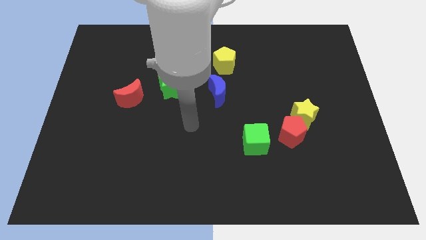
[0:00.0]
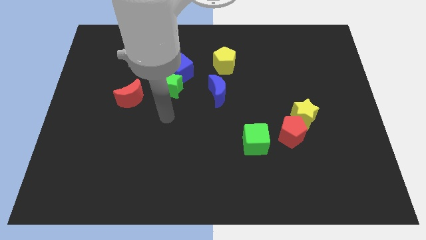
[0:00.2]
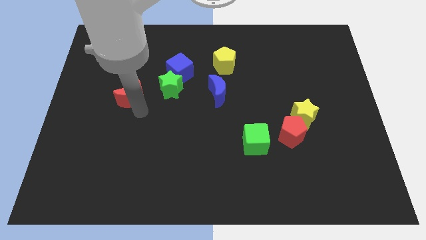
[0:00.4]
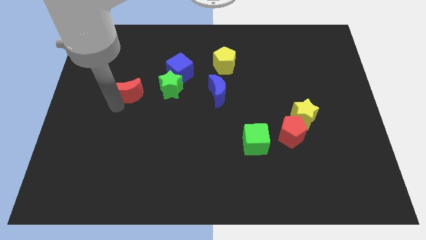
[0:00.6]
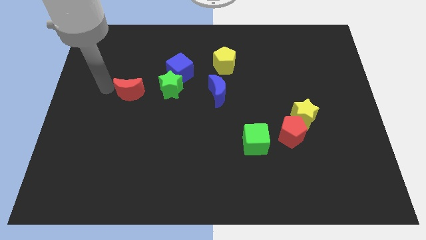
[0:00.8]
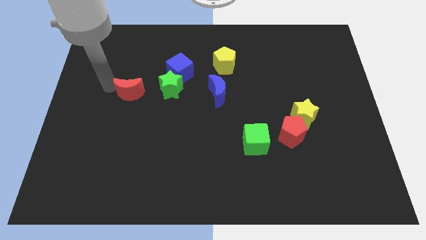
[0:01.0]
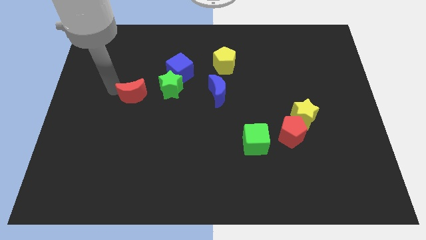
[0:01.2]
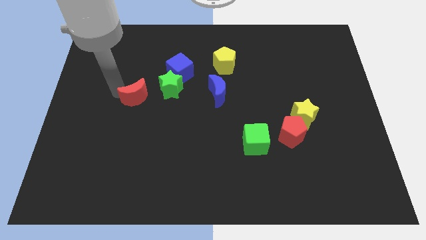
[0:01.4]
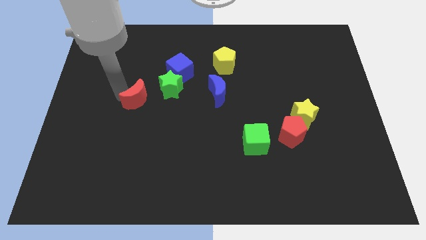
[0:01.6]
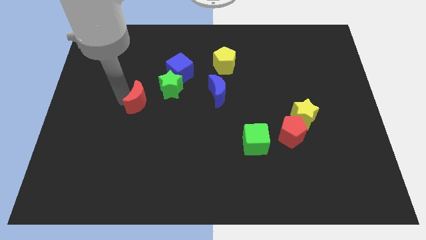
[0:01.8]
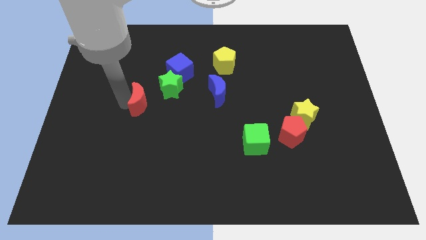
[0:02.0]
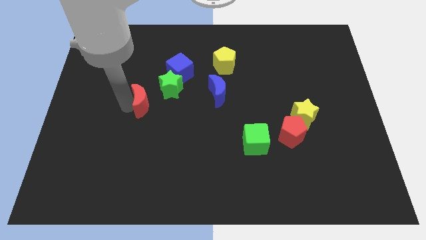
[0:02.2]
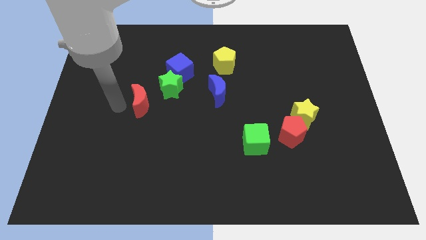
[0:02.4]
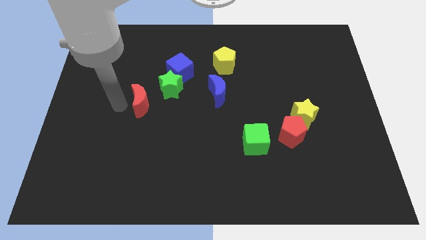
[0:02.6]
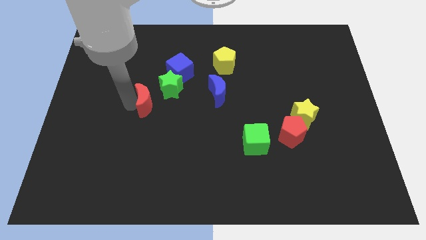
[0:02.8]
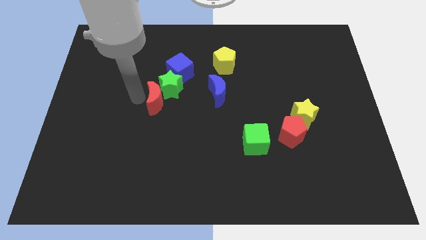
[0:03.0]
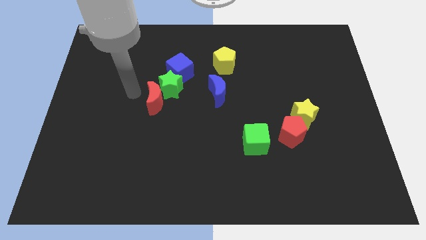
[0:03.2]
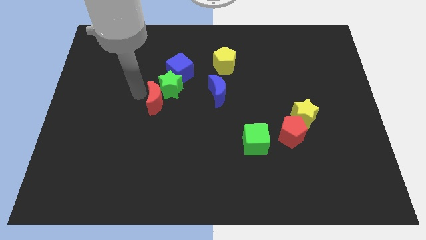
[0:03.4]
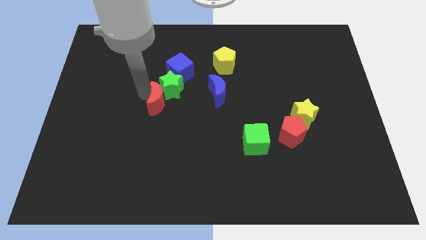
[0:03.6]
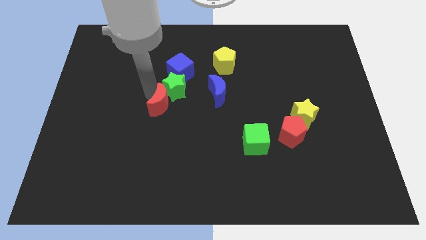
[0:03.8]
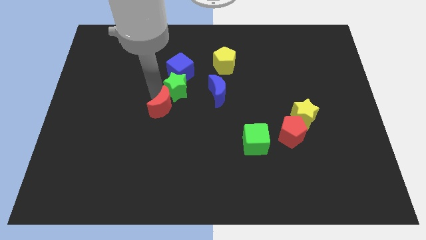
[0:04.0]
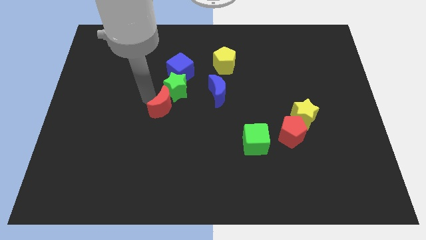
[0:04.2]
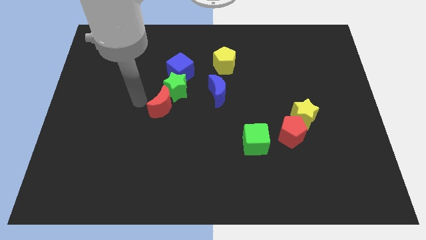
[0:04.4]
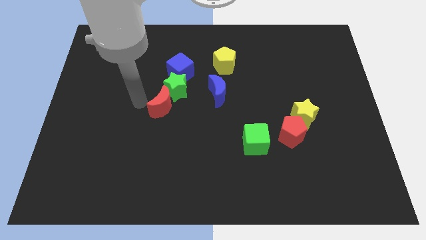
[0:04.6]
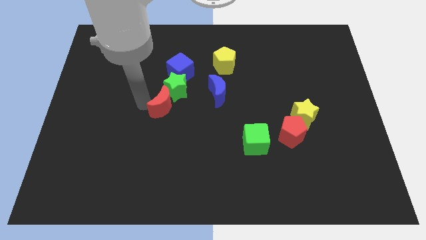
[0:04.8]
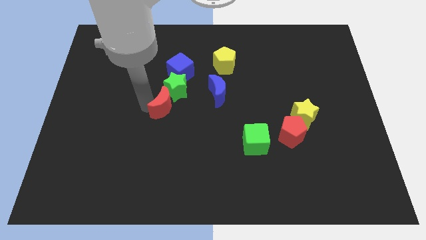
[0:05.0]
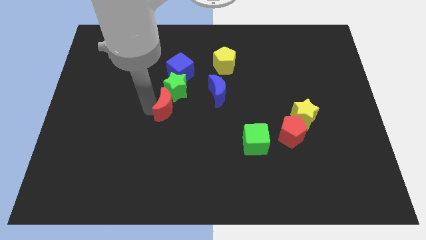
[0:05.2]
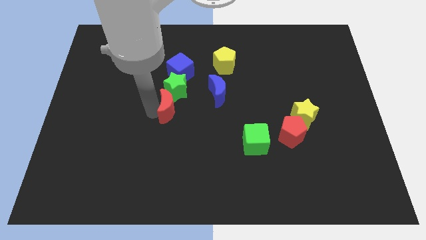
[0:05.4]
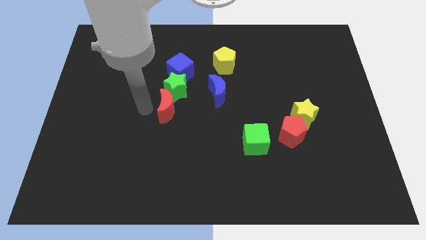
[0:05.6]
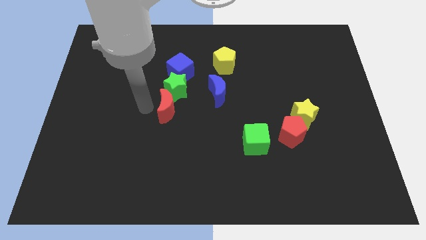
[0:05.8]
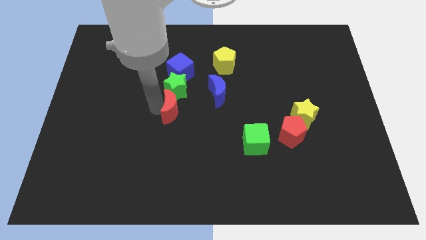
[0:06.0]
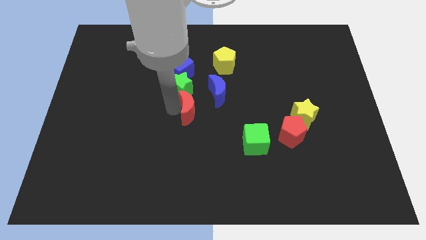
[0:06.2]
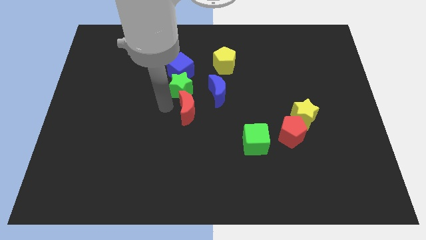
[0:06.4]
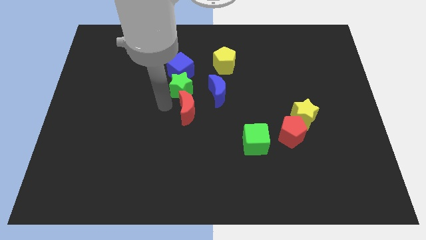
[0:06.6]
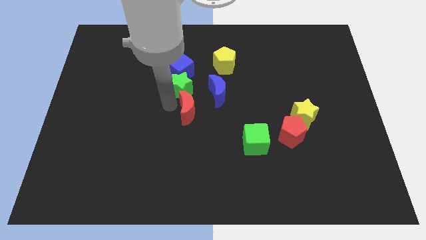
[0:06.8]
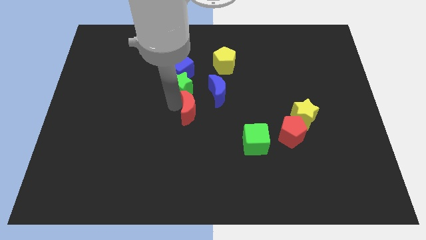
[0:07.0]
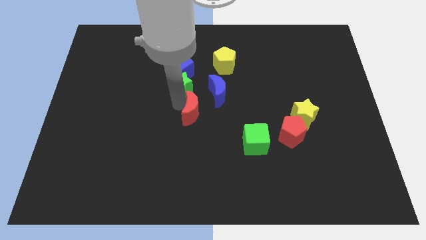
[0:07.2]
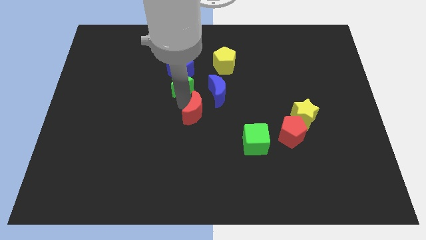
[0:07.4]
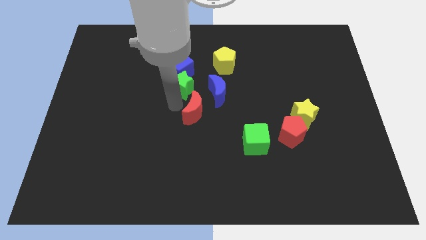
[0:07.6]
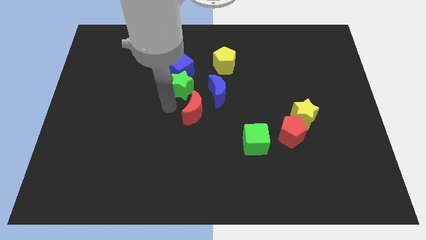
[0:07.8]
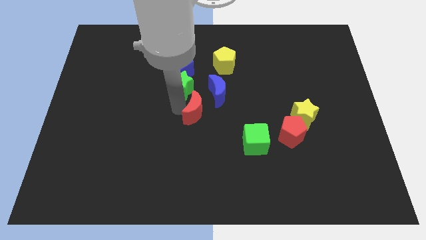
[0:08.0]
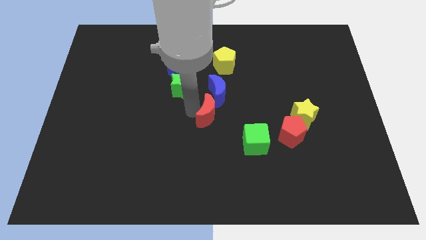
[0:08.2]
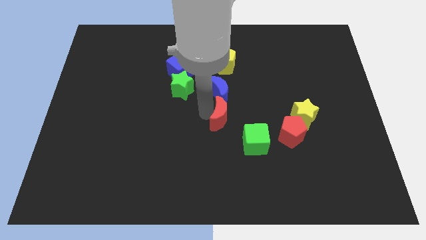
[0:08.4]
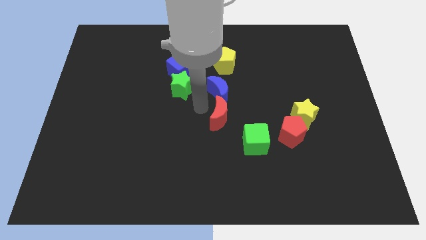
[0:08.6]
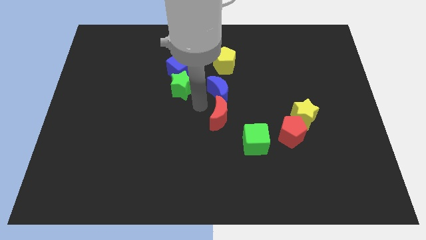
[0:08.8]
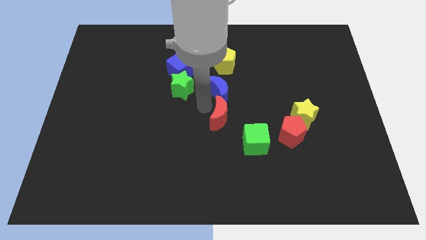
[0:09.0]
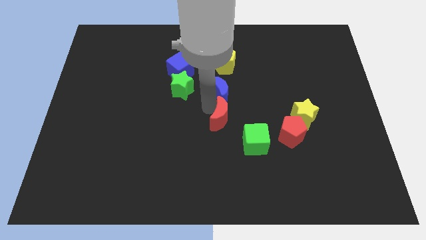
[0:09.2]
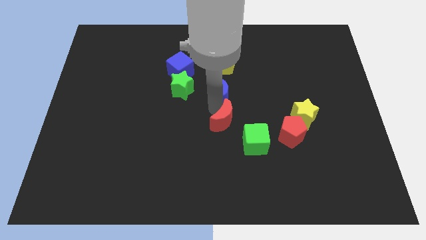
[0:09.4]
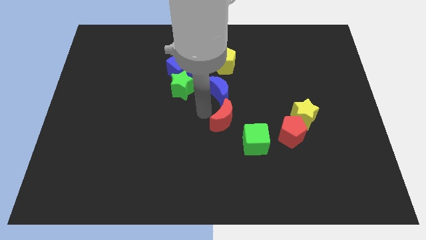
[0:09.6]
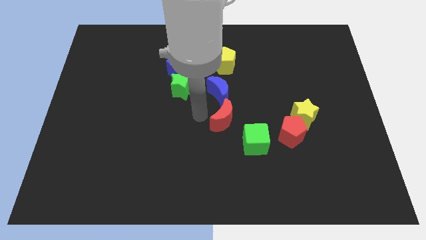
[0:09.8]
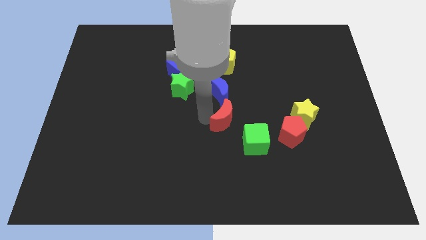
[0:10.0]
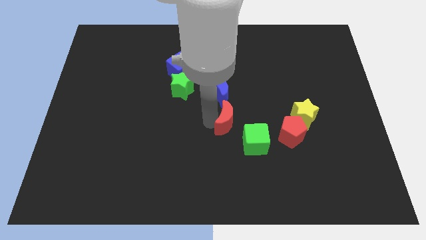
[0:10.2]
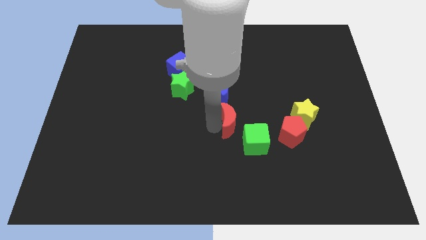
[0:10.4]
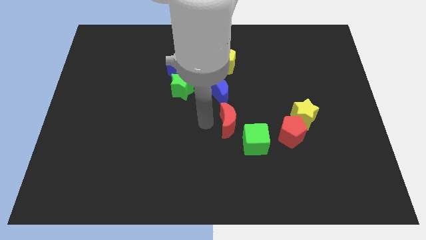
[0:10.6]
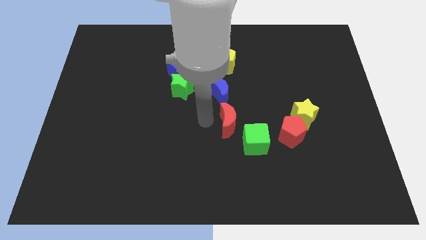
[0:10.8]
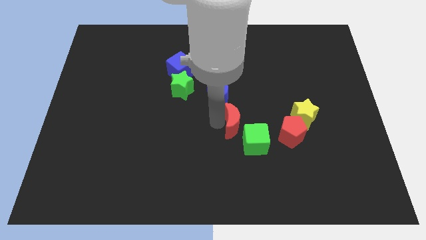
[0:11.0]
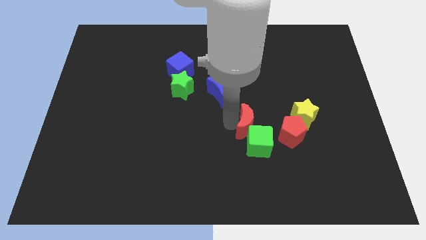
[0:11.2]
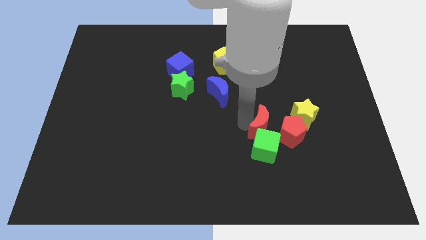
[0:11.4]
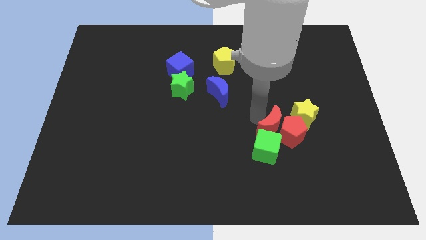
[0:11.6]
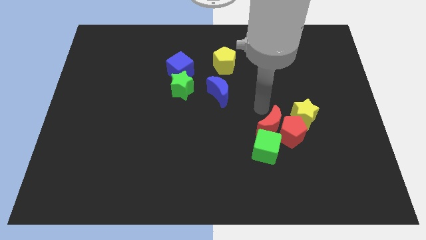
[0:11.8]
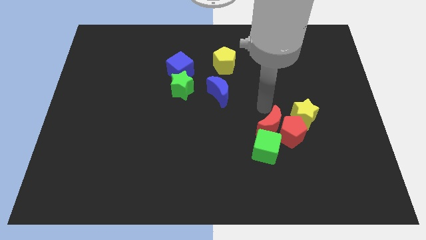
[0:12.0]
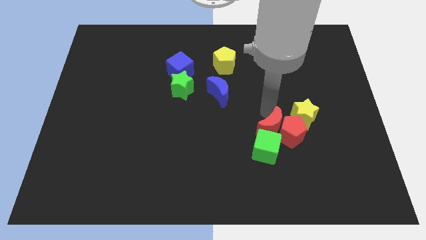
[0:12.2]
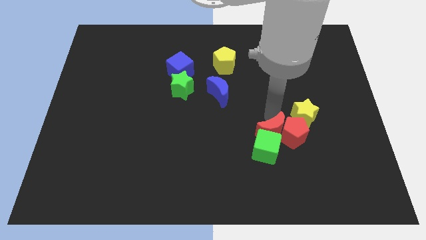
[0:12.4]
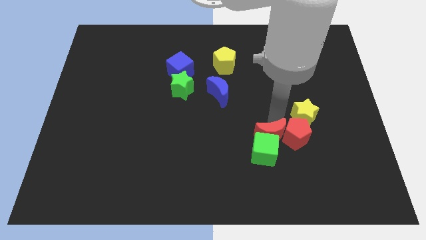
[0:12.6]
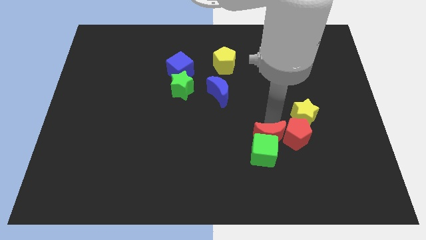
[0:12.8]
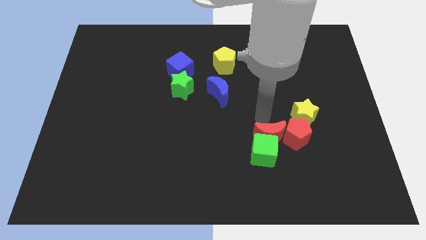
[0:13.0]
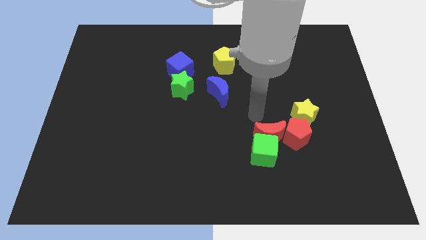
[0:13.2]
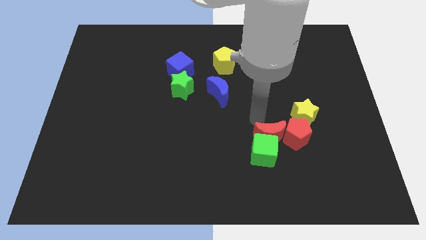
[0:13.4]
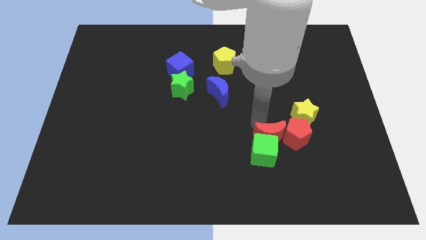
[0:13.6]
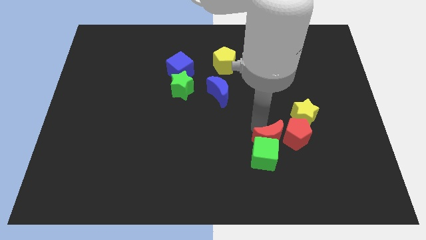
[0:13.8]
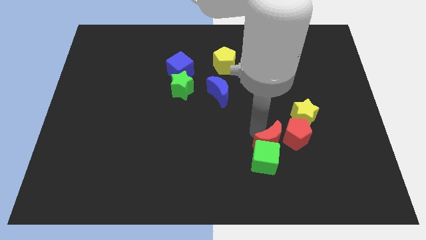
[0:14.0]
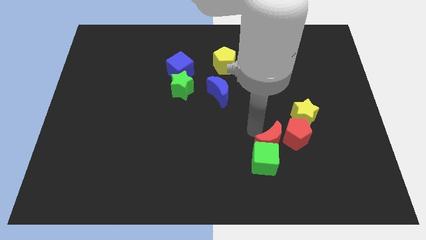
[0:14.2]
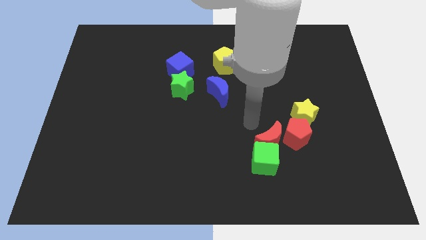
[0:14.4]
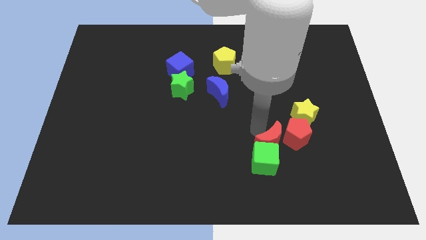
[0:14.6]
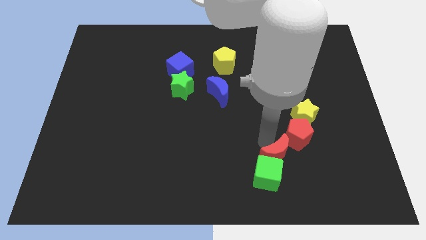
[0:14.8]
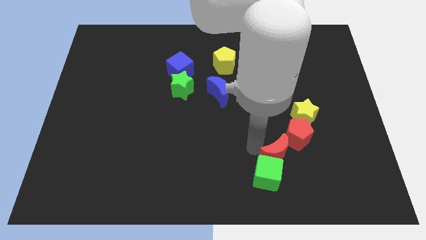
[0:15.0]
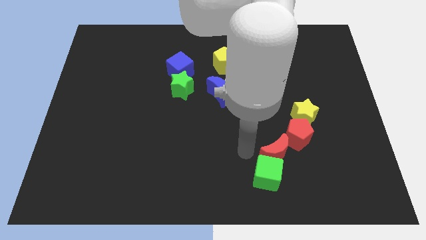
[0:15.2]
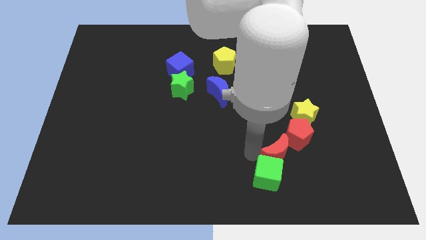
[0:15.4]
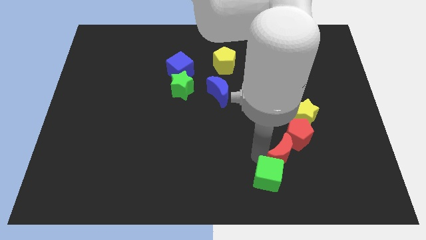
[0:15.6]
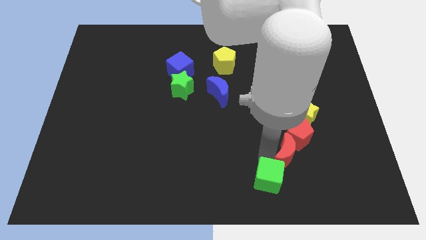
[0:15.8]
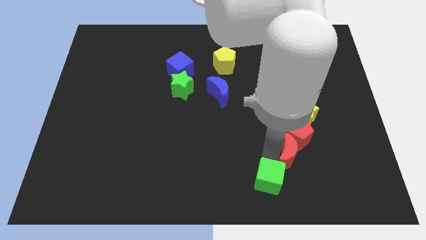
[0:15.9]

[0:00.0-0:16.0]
move the red moon below the yellow star
